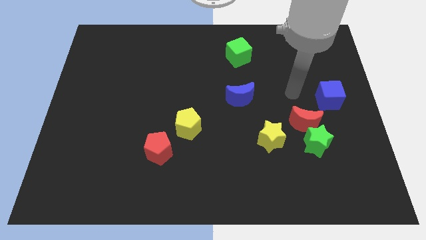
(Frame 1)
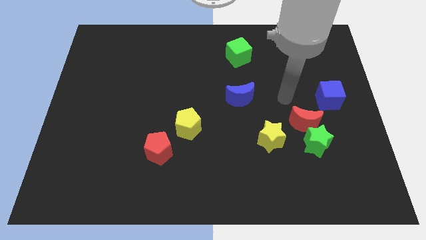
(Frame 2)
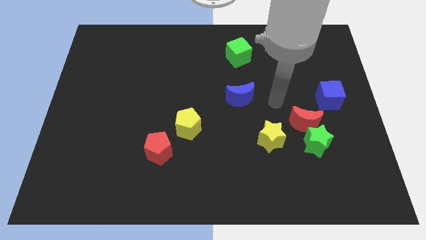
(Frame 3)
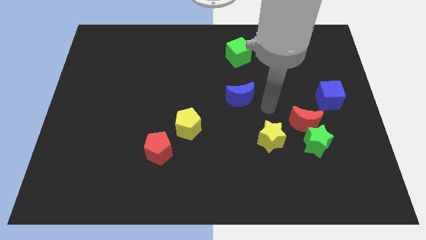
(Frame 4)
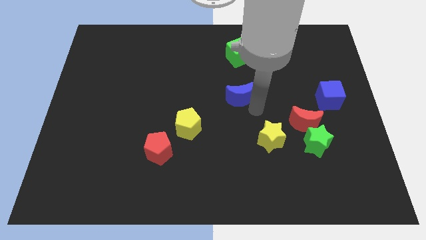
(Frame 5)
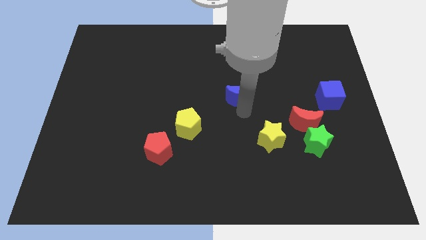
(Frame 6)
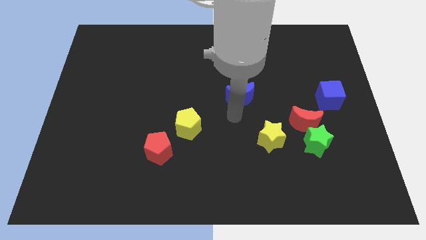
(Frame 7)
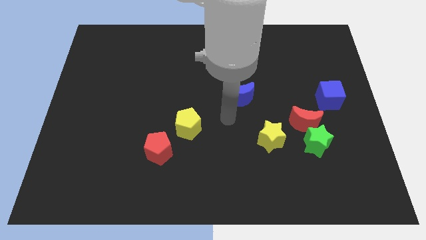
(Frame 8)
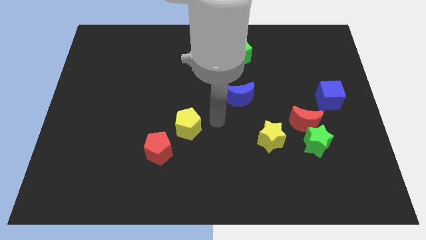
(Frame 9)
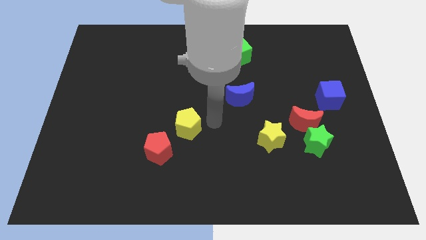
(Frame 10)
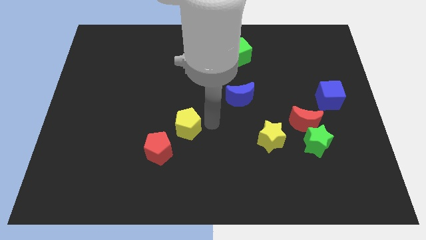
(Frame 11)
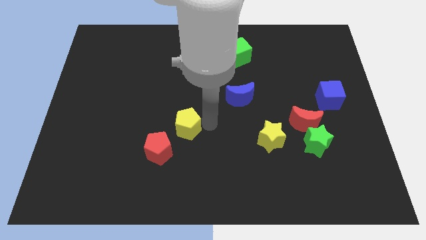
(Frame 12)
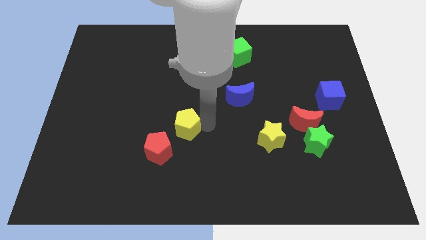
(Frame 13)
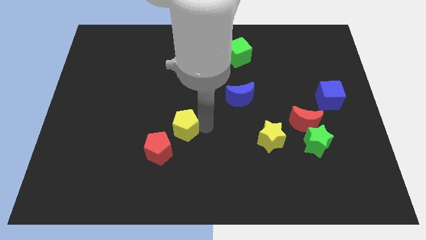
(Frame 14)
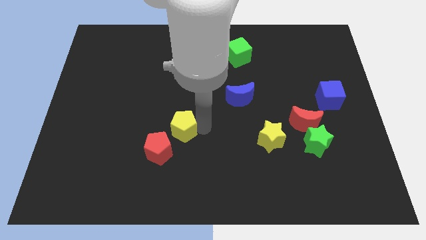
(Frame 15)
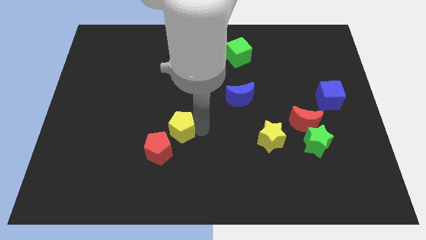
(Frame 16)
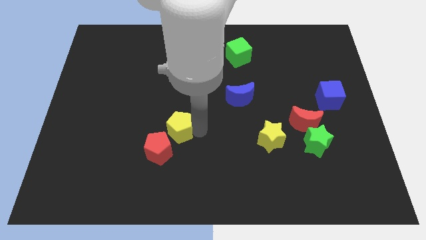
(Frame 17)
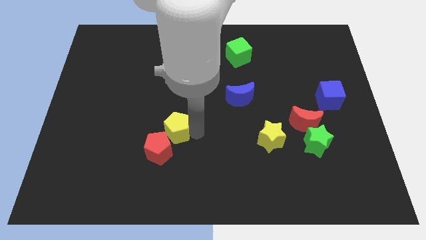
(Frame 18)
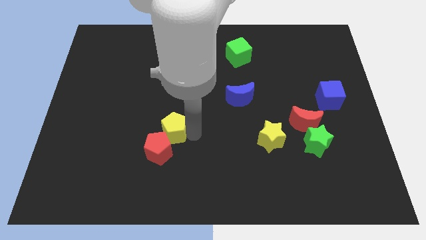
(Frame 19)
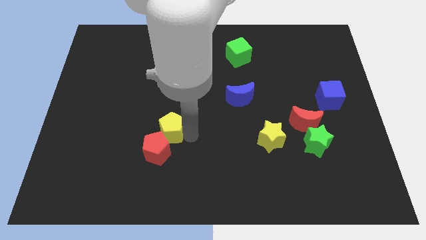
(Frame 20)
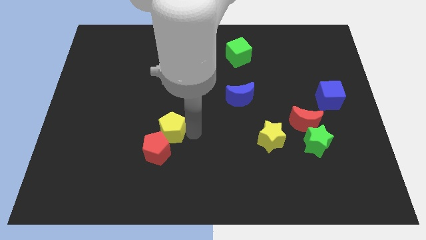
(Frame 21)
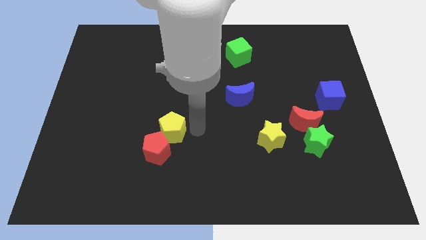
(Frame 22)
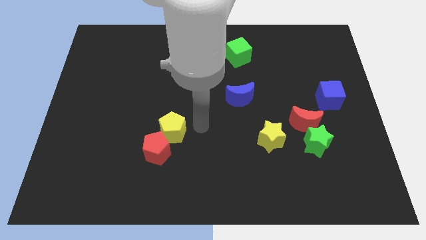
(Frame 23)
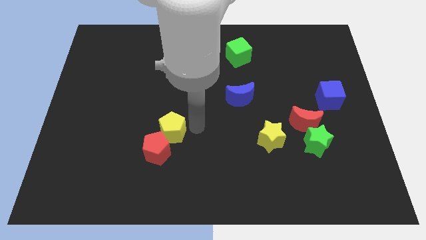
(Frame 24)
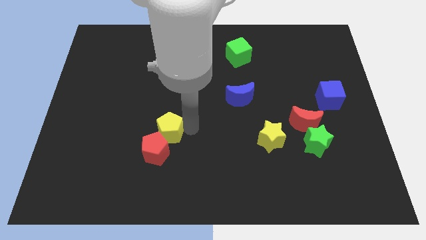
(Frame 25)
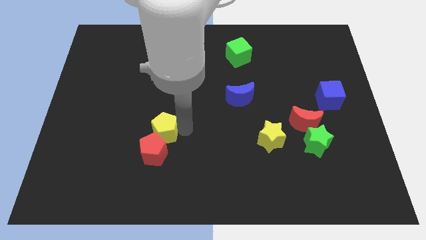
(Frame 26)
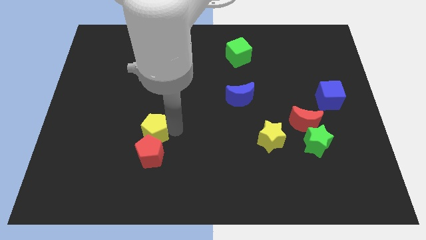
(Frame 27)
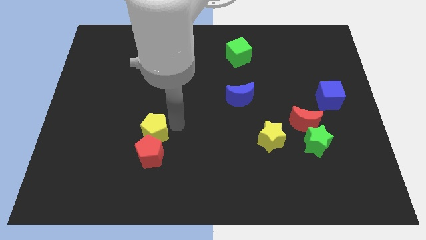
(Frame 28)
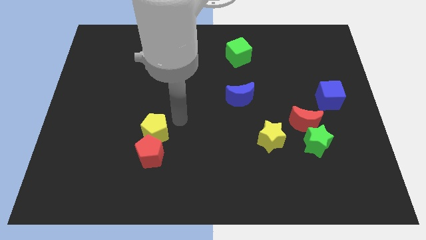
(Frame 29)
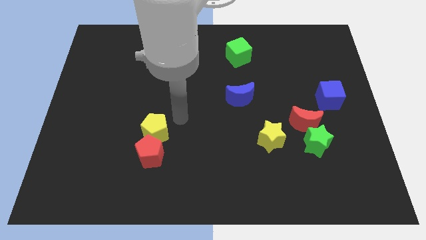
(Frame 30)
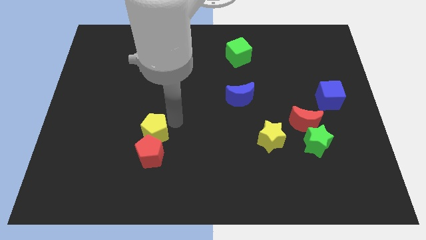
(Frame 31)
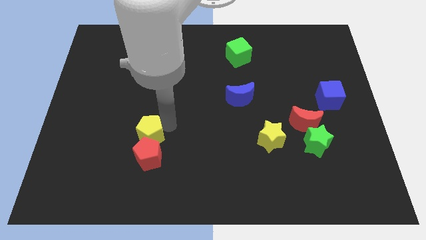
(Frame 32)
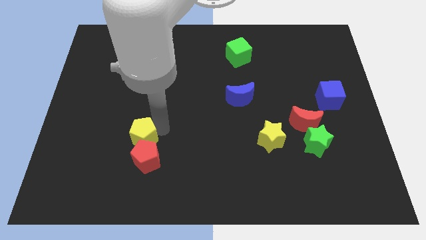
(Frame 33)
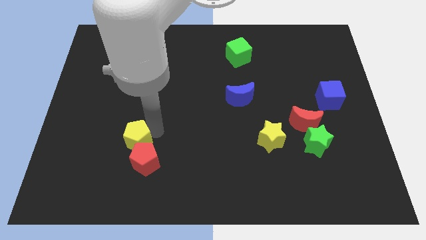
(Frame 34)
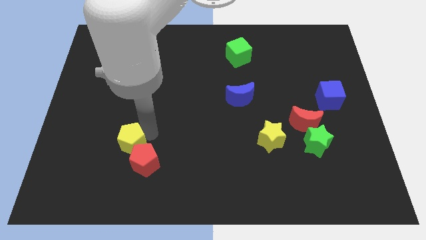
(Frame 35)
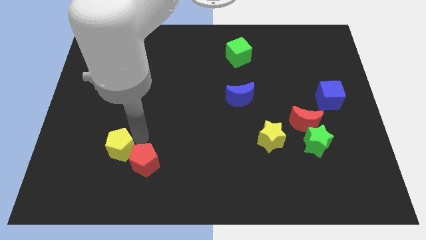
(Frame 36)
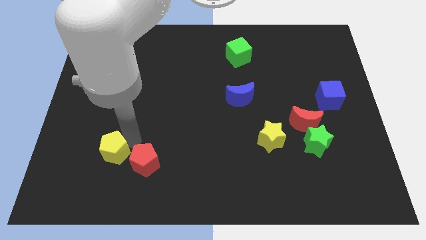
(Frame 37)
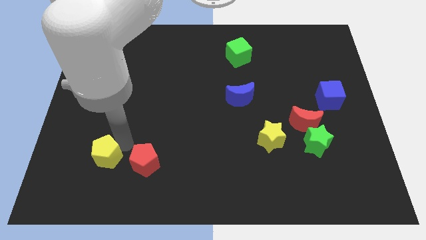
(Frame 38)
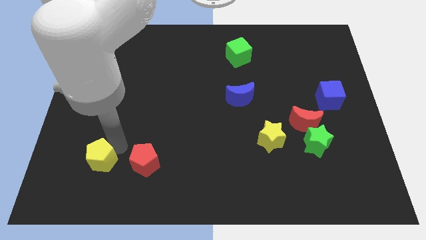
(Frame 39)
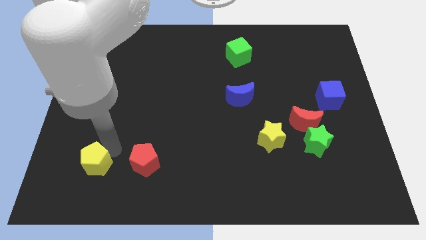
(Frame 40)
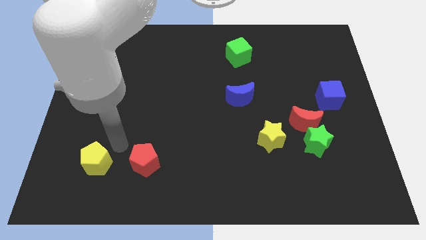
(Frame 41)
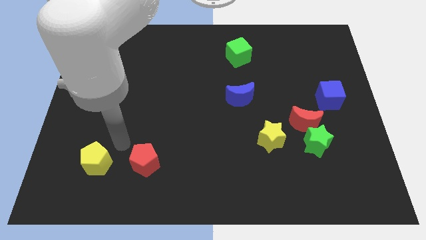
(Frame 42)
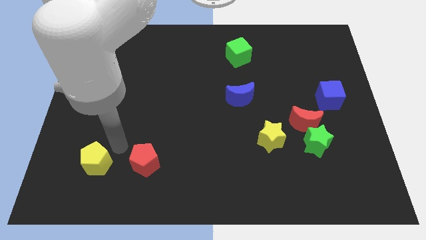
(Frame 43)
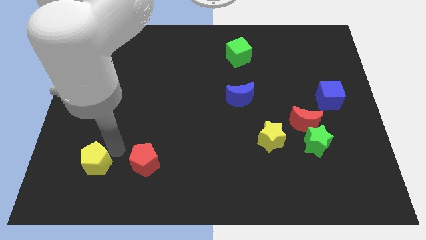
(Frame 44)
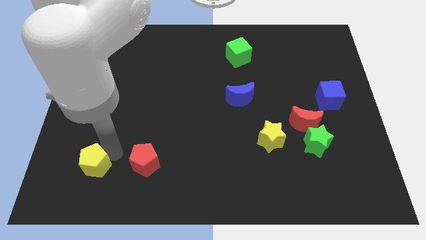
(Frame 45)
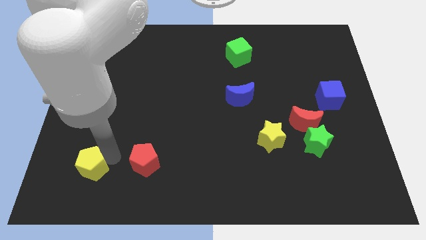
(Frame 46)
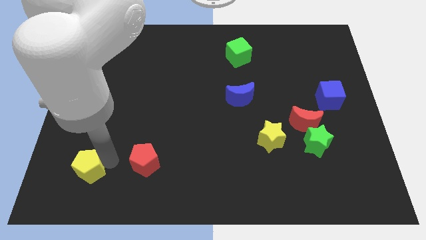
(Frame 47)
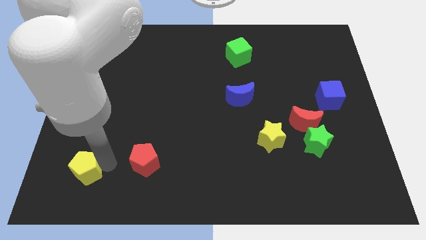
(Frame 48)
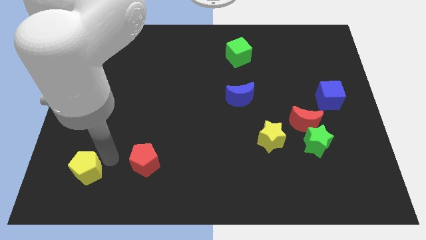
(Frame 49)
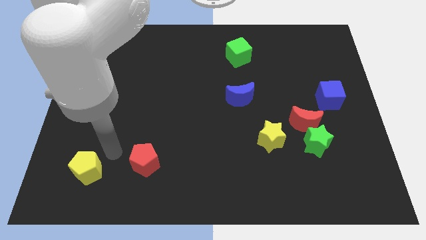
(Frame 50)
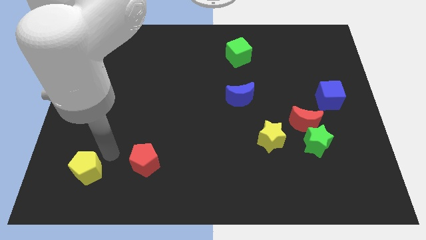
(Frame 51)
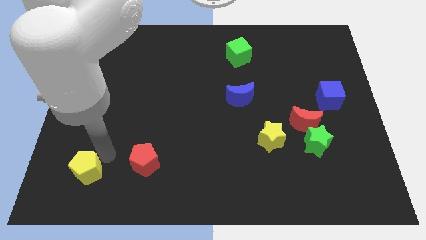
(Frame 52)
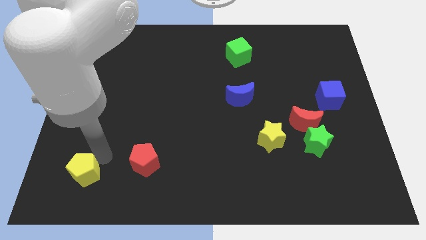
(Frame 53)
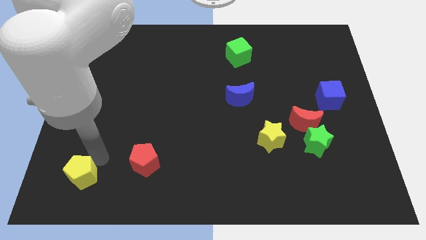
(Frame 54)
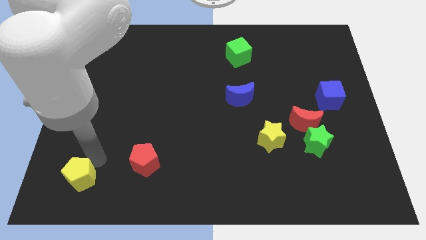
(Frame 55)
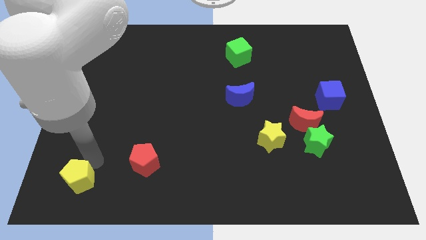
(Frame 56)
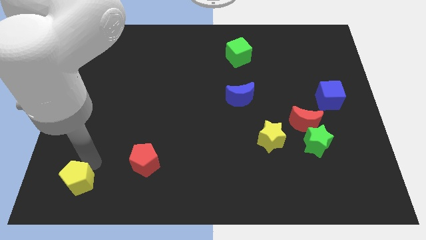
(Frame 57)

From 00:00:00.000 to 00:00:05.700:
push the yellow pentagon to the lower left corner
